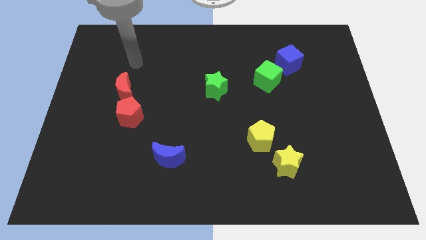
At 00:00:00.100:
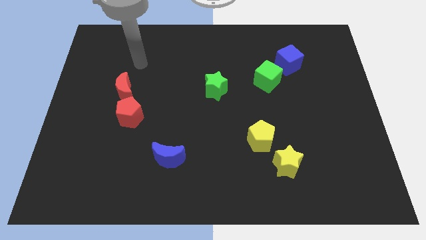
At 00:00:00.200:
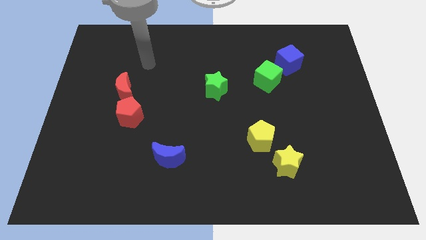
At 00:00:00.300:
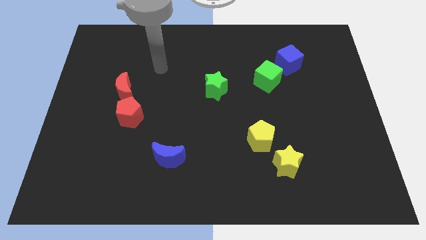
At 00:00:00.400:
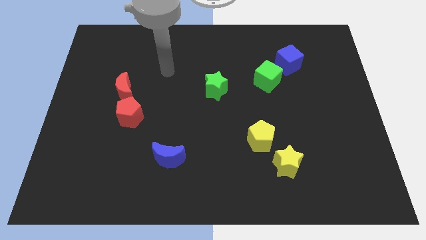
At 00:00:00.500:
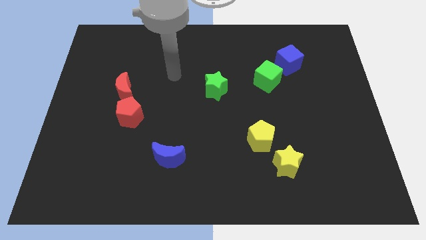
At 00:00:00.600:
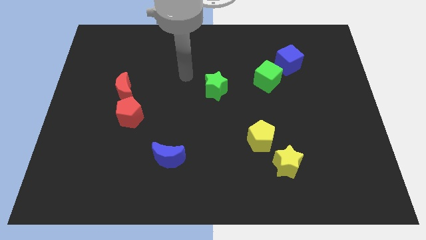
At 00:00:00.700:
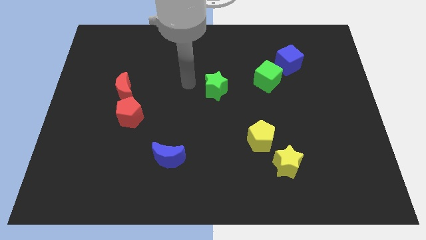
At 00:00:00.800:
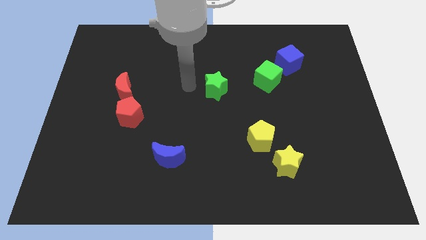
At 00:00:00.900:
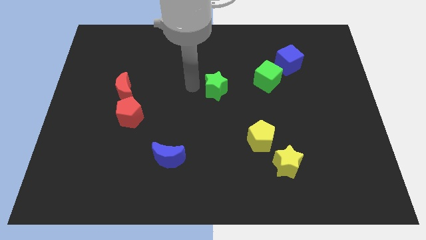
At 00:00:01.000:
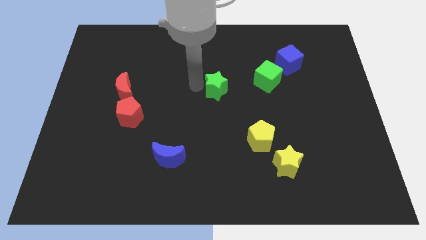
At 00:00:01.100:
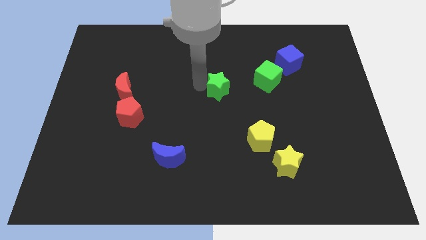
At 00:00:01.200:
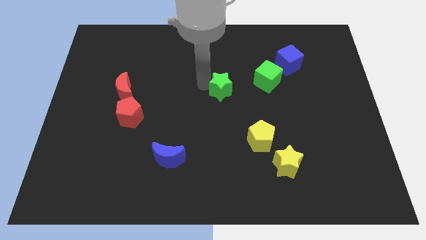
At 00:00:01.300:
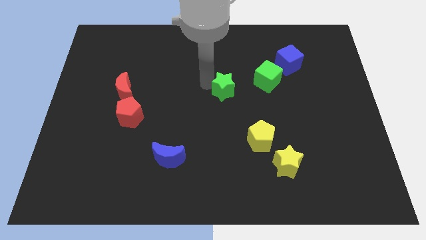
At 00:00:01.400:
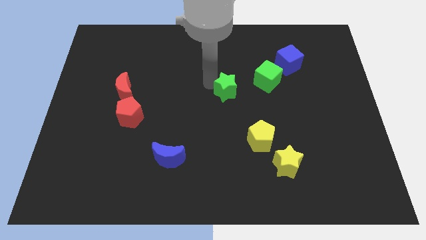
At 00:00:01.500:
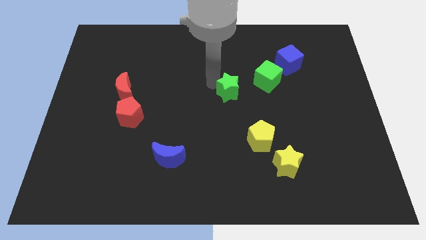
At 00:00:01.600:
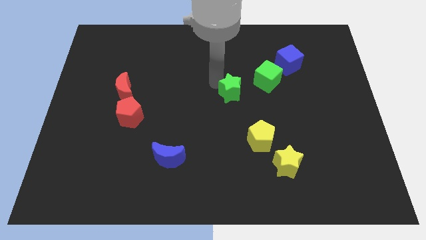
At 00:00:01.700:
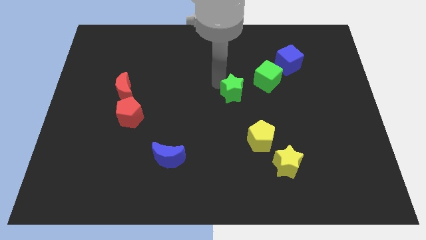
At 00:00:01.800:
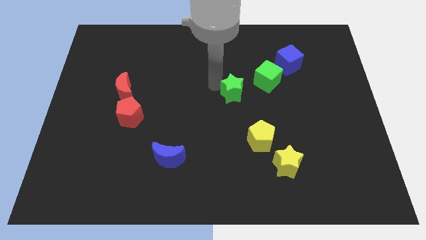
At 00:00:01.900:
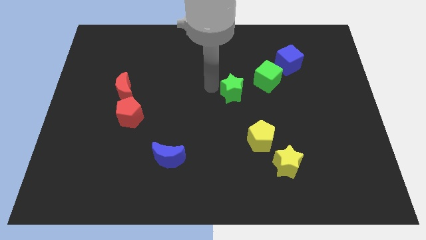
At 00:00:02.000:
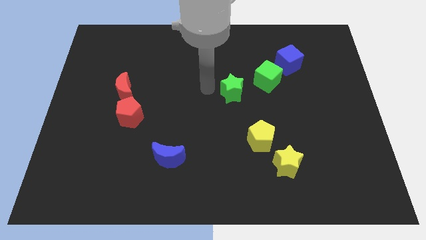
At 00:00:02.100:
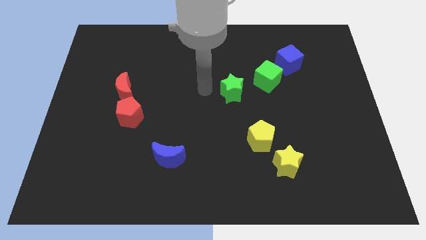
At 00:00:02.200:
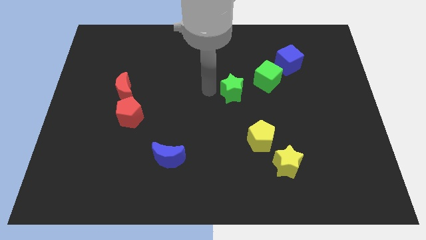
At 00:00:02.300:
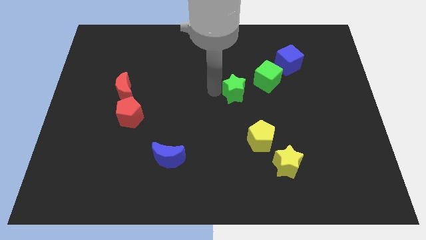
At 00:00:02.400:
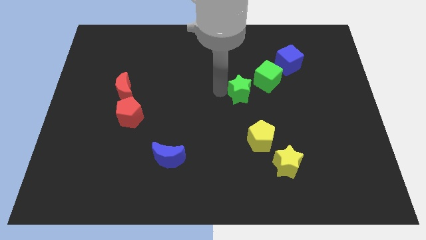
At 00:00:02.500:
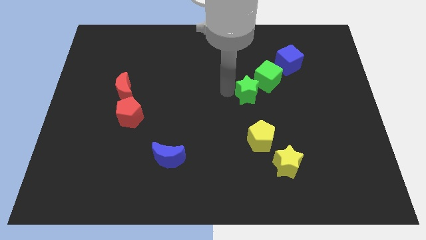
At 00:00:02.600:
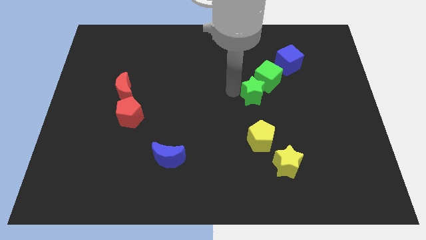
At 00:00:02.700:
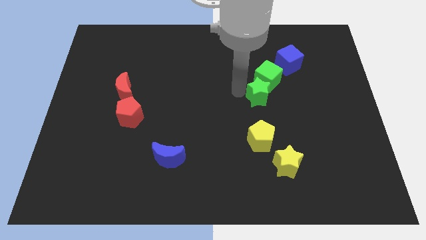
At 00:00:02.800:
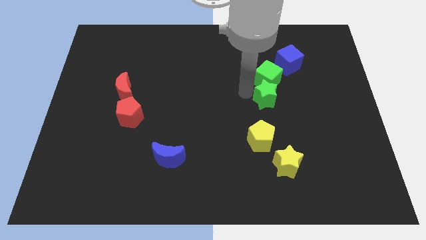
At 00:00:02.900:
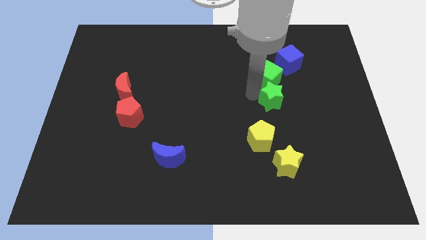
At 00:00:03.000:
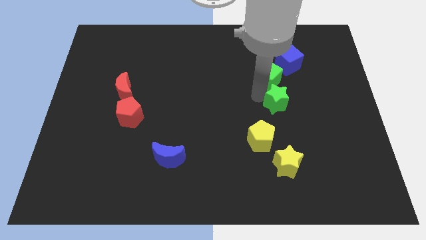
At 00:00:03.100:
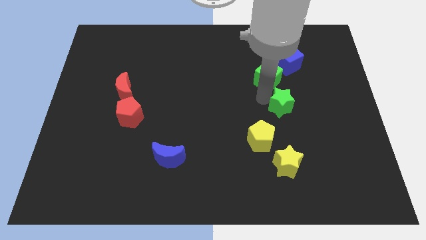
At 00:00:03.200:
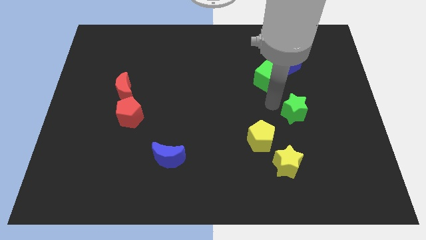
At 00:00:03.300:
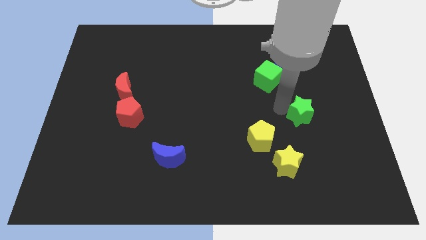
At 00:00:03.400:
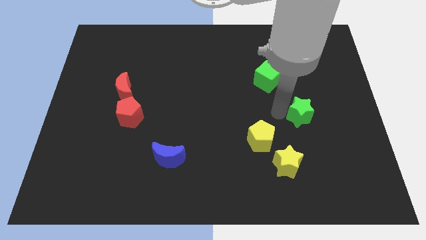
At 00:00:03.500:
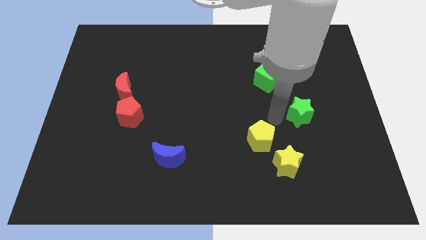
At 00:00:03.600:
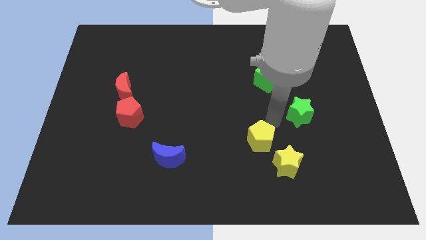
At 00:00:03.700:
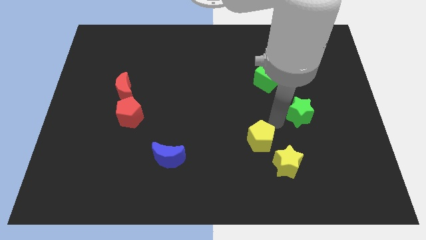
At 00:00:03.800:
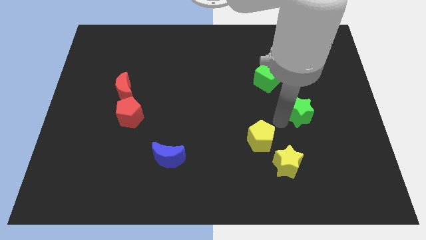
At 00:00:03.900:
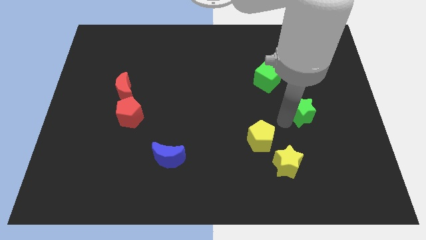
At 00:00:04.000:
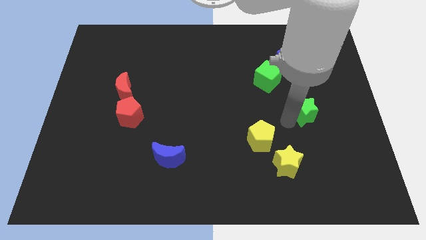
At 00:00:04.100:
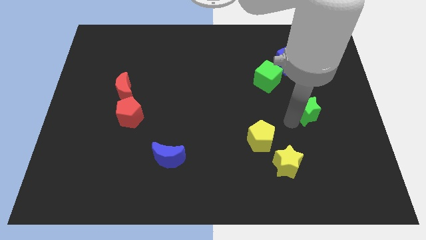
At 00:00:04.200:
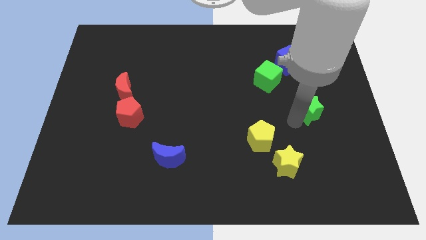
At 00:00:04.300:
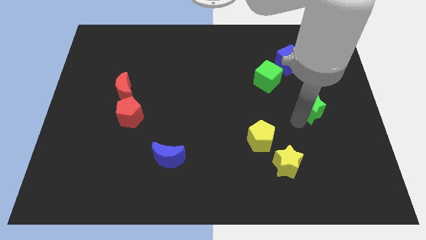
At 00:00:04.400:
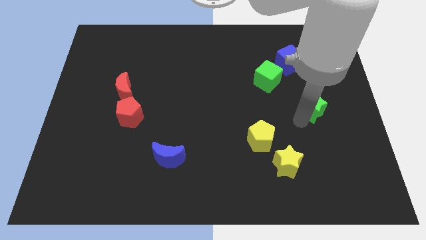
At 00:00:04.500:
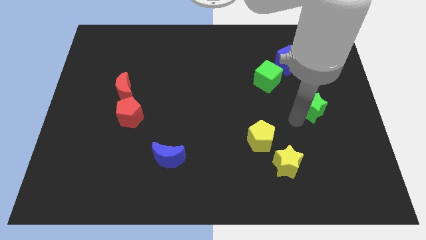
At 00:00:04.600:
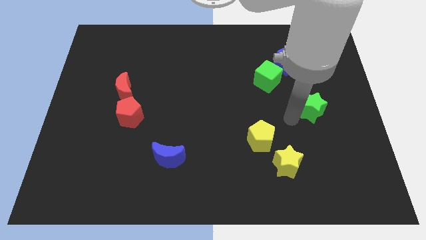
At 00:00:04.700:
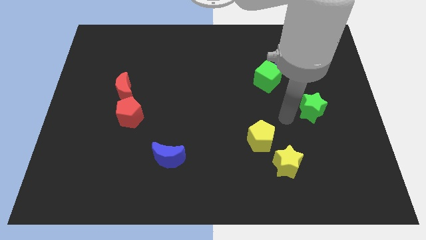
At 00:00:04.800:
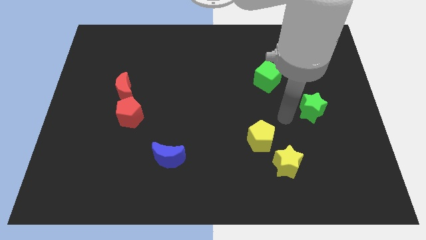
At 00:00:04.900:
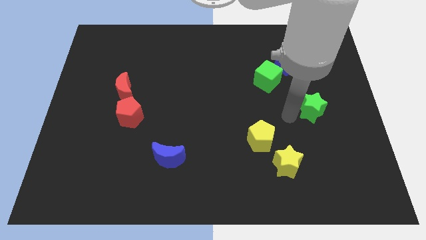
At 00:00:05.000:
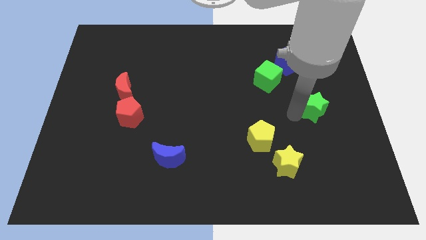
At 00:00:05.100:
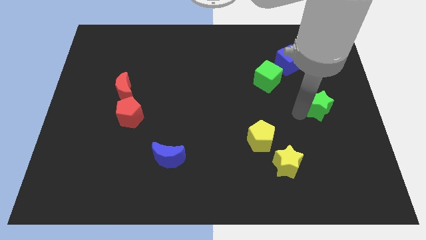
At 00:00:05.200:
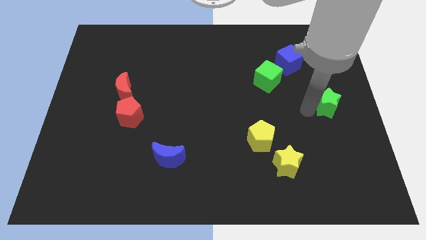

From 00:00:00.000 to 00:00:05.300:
push the green star to the center right
